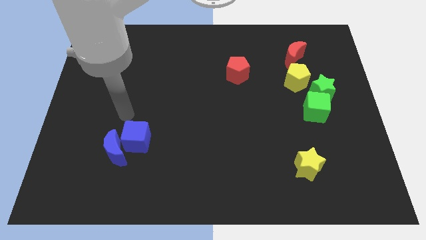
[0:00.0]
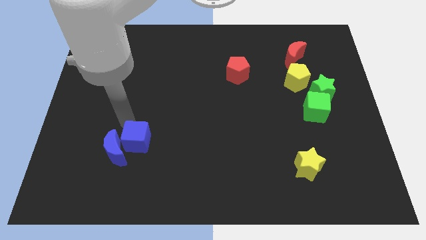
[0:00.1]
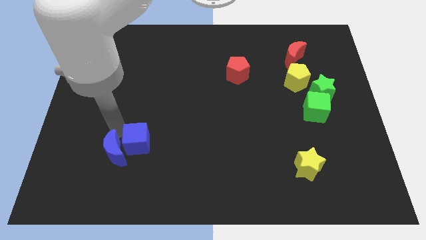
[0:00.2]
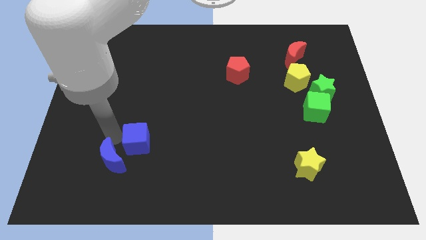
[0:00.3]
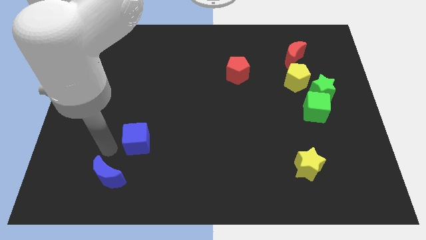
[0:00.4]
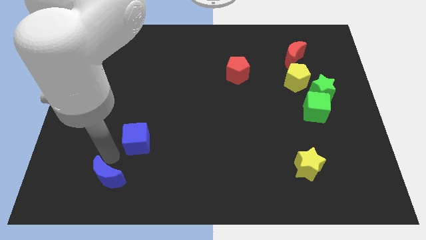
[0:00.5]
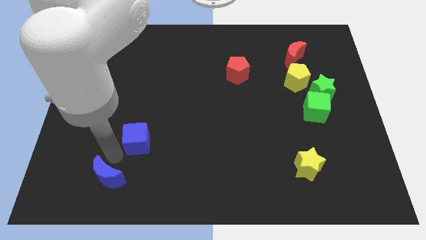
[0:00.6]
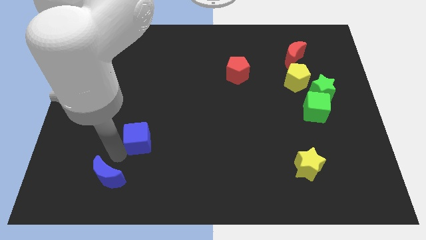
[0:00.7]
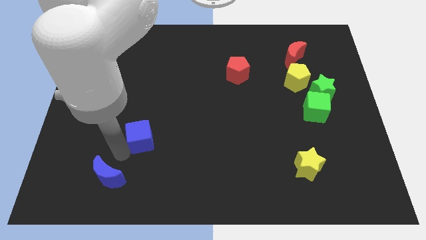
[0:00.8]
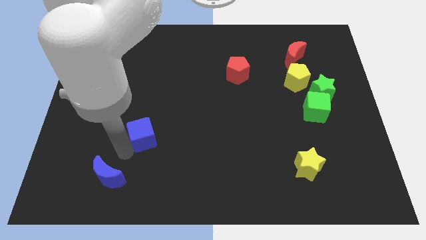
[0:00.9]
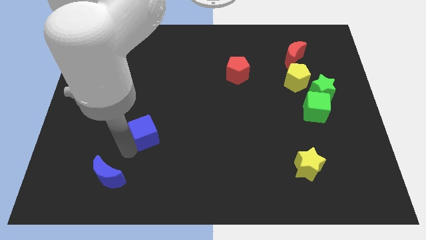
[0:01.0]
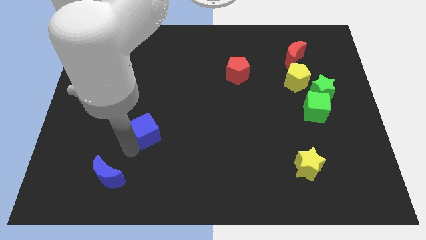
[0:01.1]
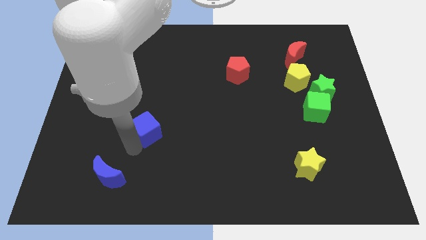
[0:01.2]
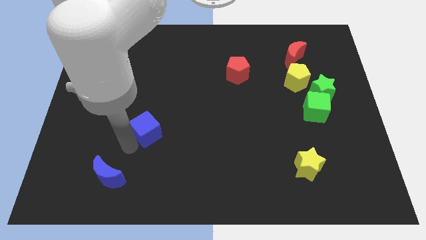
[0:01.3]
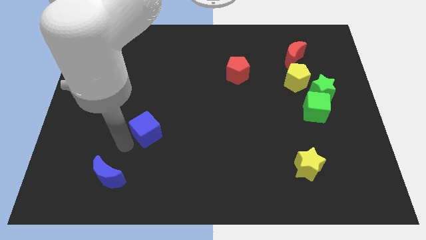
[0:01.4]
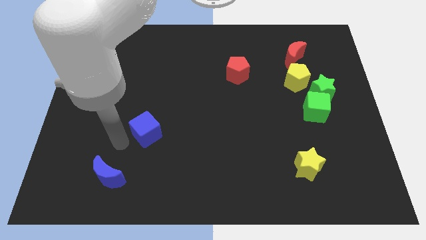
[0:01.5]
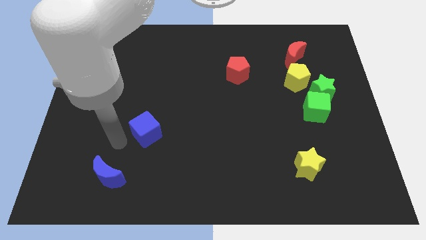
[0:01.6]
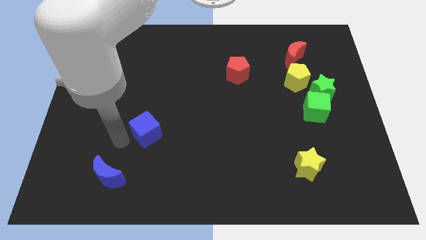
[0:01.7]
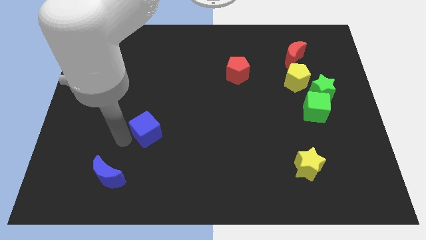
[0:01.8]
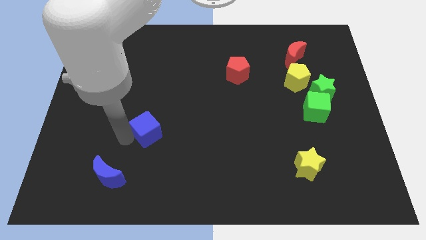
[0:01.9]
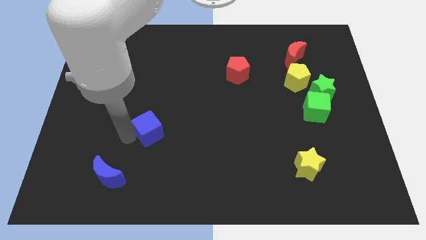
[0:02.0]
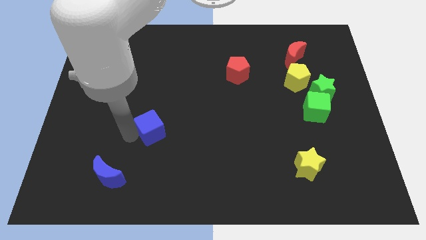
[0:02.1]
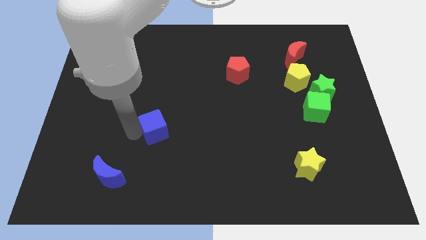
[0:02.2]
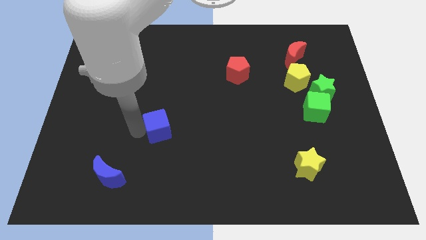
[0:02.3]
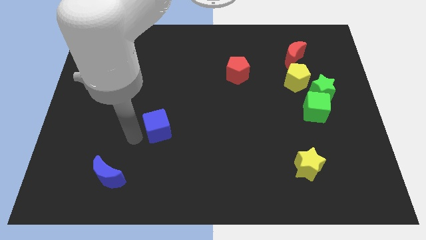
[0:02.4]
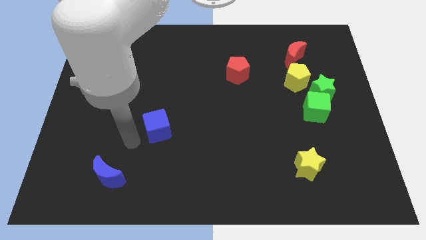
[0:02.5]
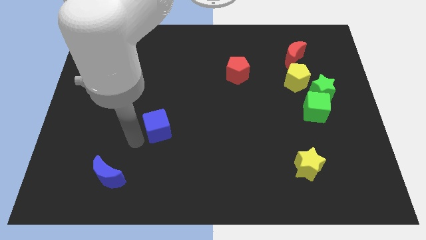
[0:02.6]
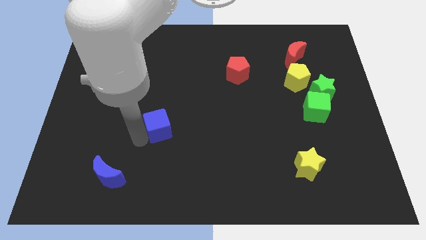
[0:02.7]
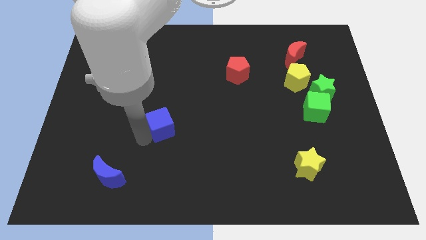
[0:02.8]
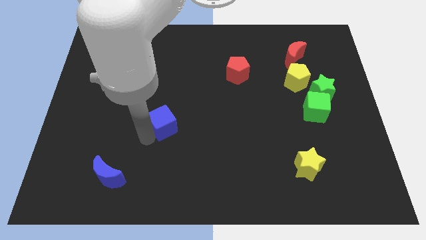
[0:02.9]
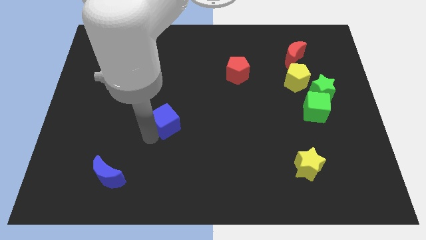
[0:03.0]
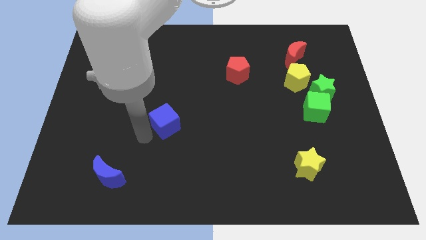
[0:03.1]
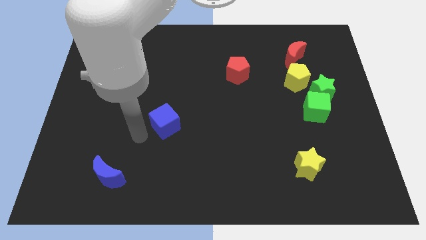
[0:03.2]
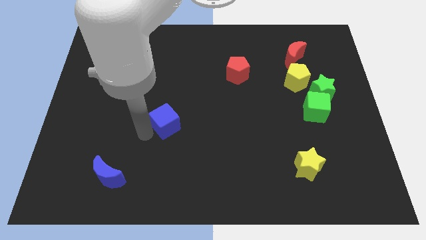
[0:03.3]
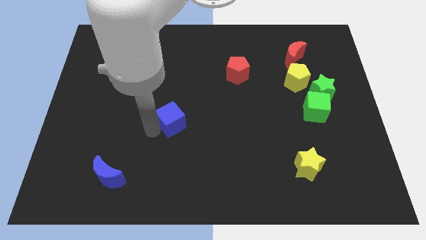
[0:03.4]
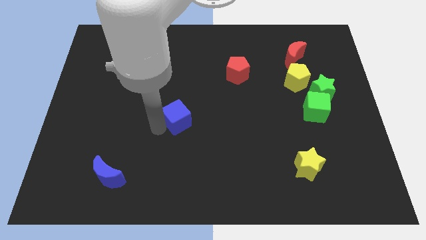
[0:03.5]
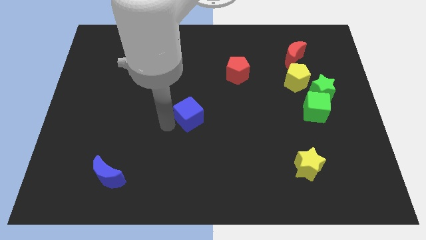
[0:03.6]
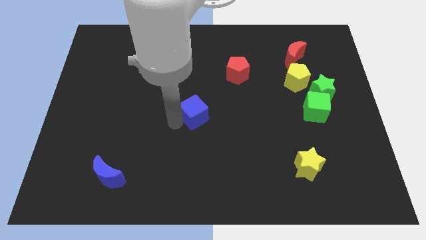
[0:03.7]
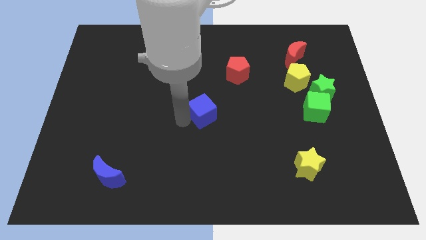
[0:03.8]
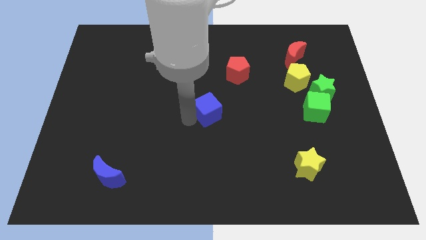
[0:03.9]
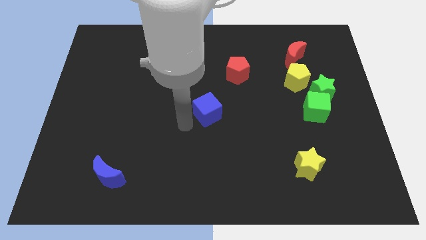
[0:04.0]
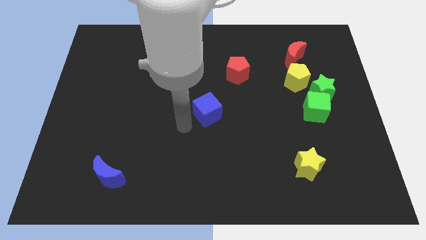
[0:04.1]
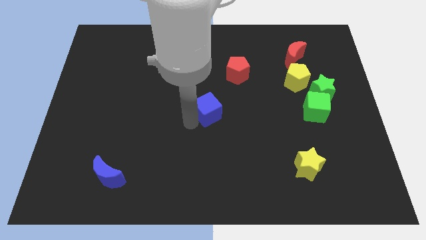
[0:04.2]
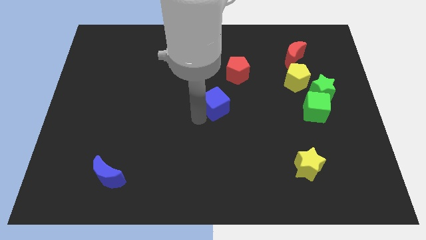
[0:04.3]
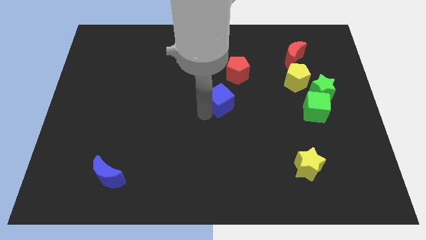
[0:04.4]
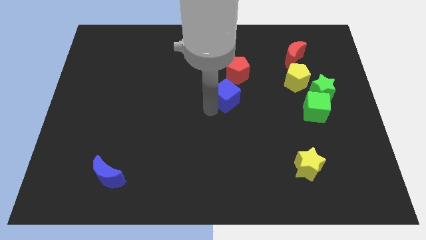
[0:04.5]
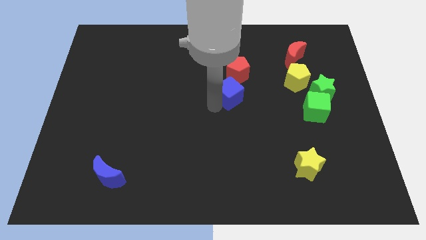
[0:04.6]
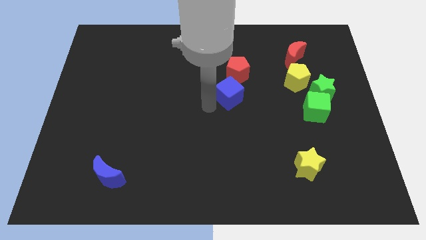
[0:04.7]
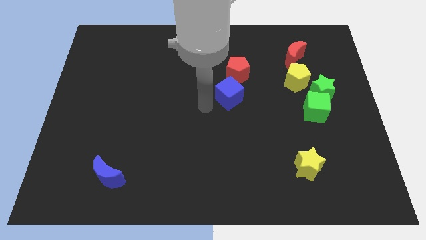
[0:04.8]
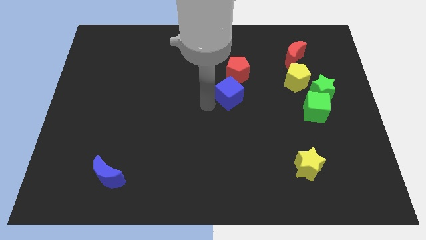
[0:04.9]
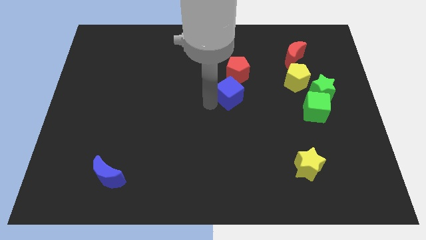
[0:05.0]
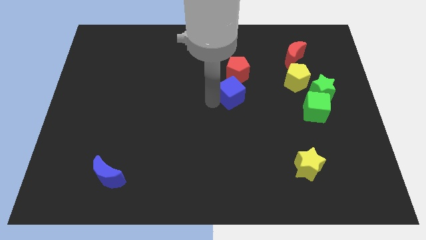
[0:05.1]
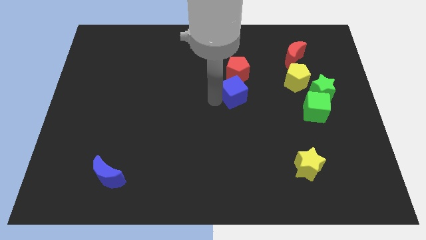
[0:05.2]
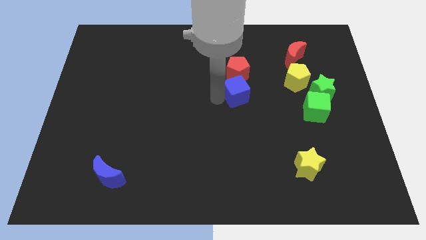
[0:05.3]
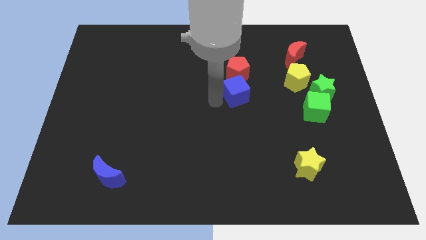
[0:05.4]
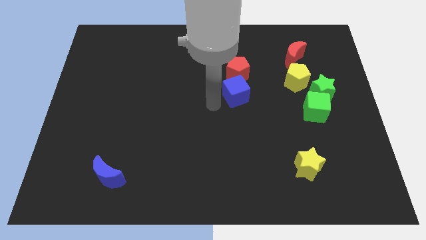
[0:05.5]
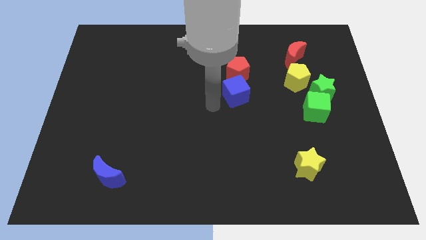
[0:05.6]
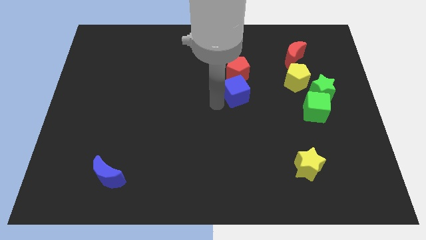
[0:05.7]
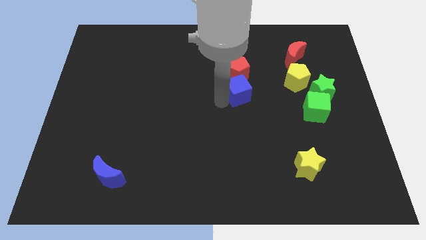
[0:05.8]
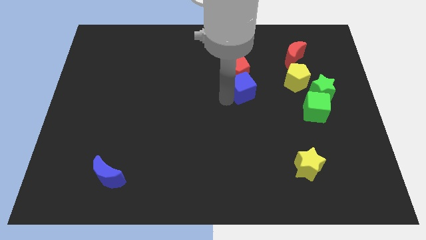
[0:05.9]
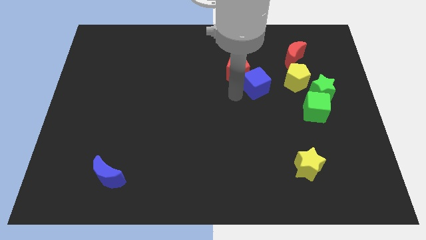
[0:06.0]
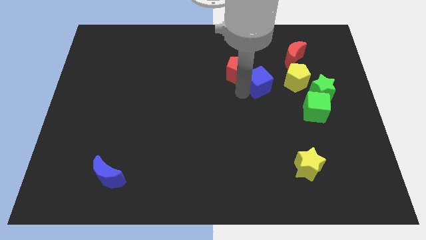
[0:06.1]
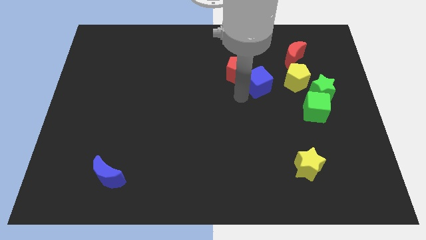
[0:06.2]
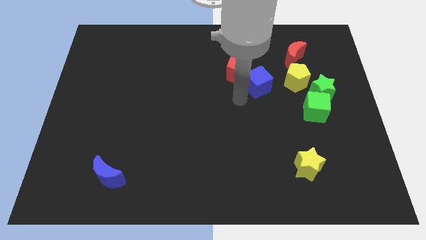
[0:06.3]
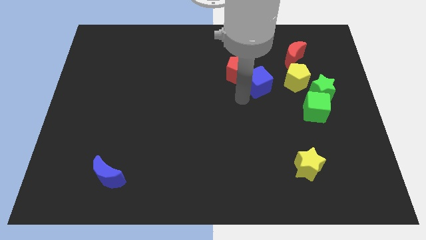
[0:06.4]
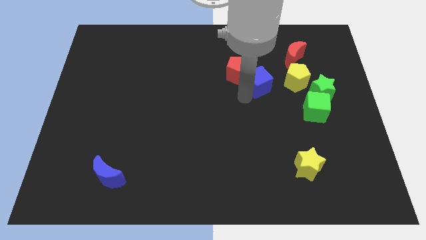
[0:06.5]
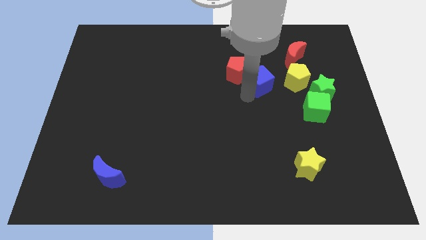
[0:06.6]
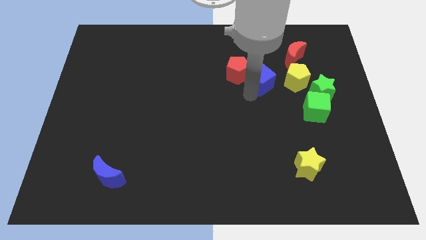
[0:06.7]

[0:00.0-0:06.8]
push the blue cube to the bottom left of the red moon

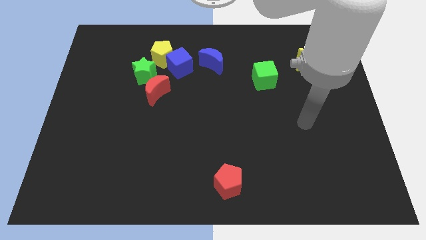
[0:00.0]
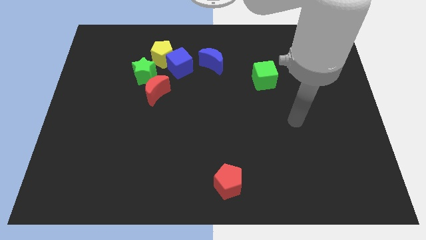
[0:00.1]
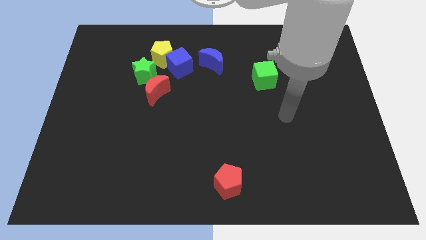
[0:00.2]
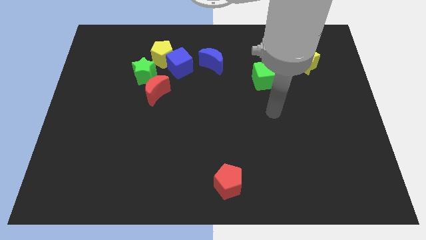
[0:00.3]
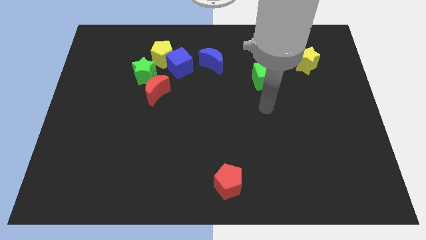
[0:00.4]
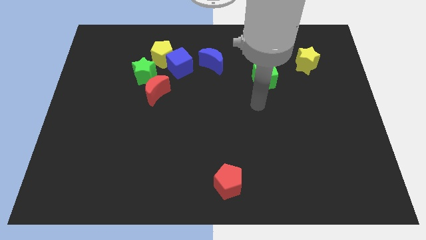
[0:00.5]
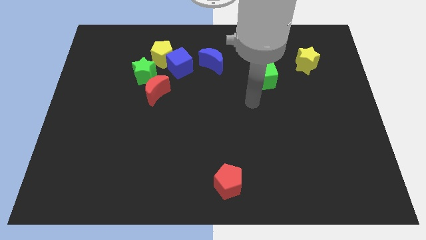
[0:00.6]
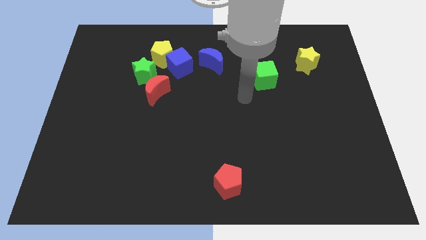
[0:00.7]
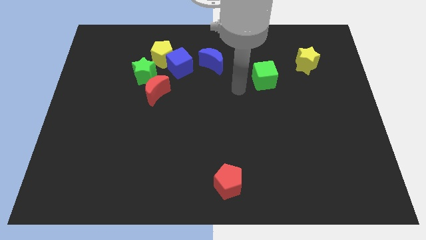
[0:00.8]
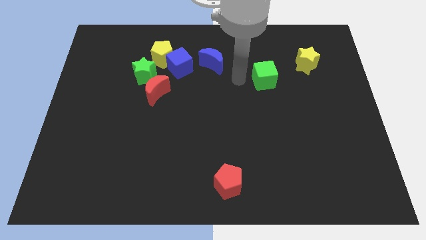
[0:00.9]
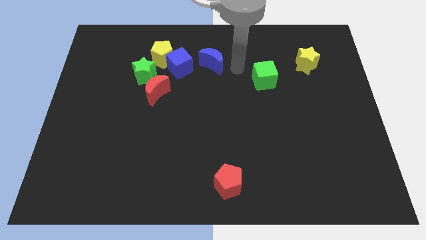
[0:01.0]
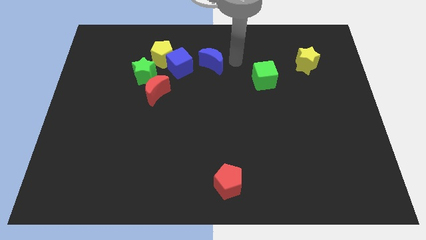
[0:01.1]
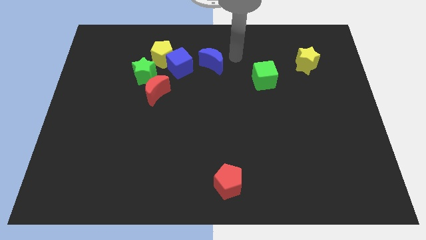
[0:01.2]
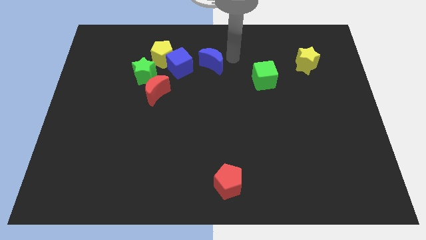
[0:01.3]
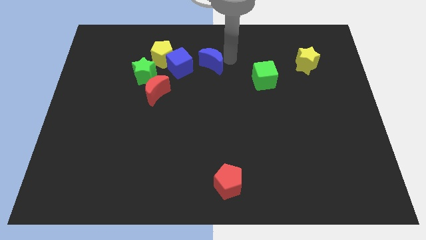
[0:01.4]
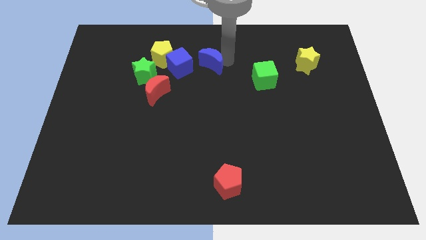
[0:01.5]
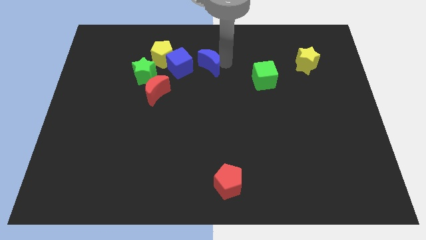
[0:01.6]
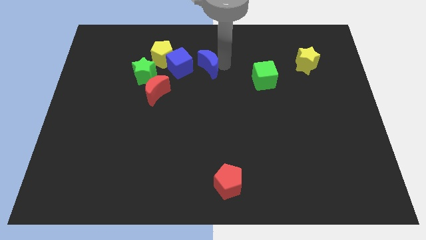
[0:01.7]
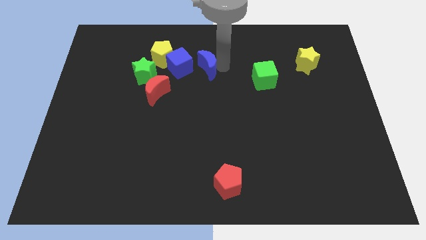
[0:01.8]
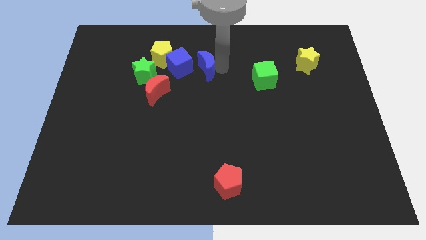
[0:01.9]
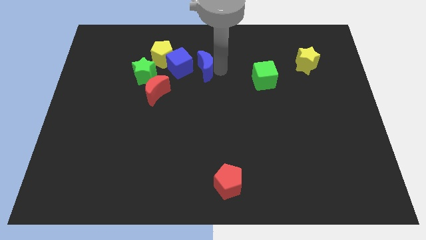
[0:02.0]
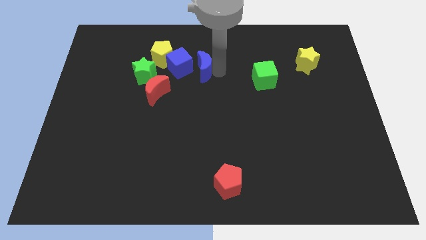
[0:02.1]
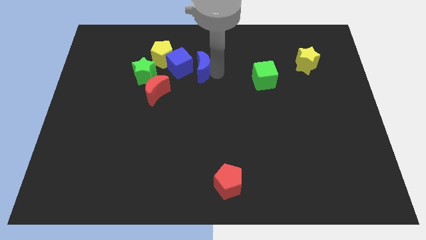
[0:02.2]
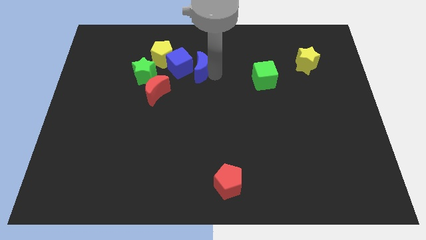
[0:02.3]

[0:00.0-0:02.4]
push the blue moon to the bottom right of the yellow pentagon
